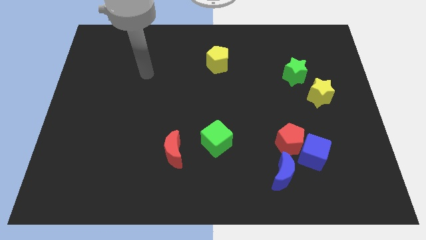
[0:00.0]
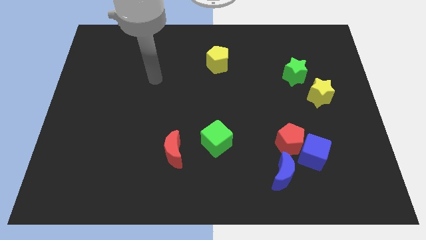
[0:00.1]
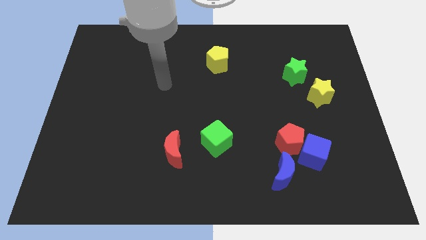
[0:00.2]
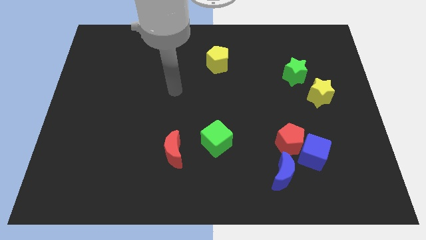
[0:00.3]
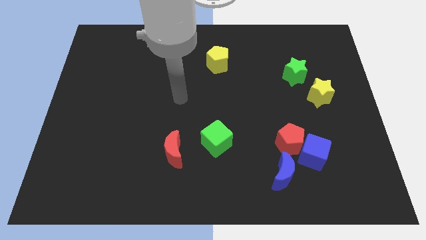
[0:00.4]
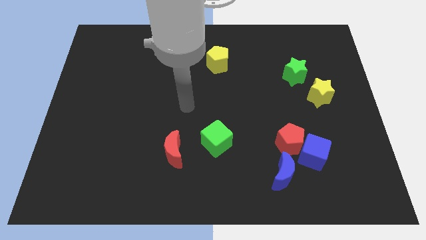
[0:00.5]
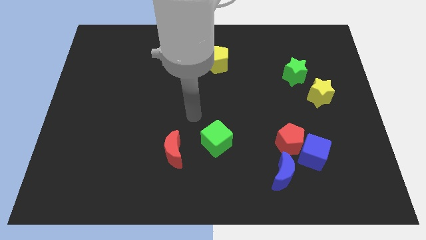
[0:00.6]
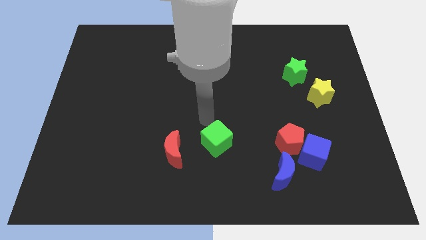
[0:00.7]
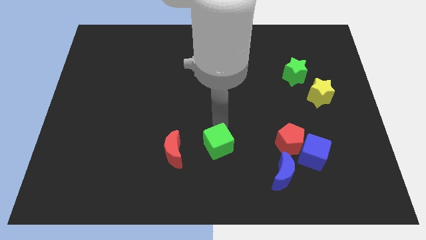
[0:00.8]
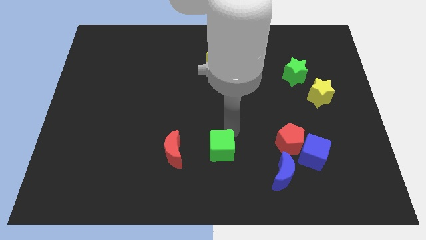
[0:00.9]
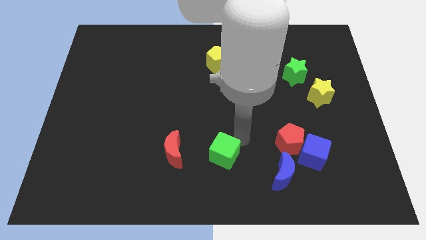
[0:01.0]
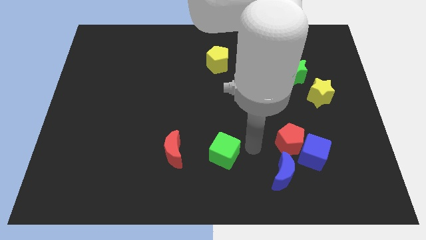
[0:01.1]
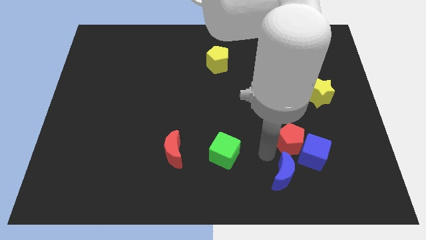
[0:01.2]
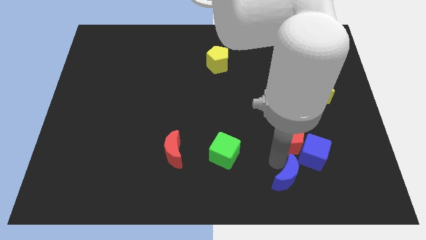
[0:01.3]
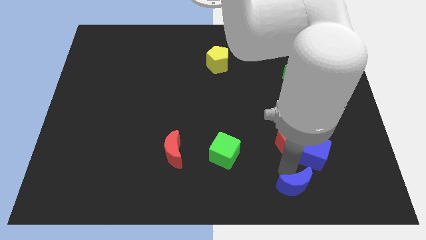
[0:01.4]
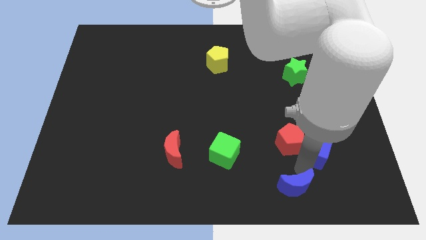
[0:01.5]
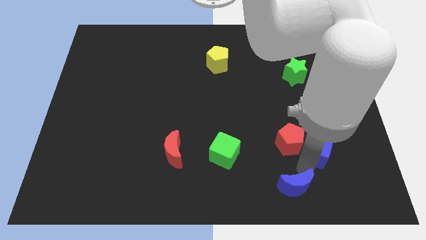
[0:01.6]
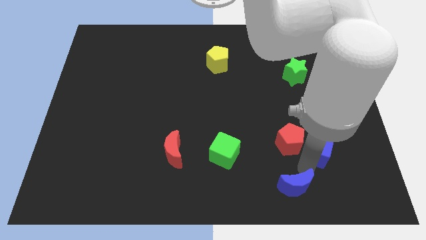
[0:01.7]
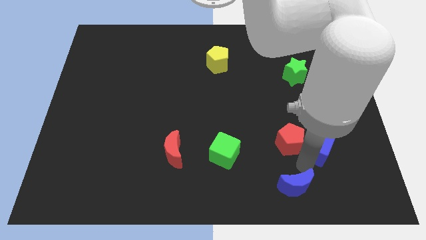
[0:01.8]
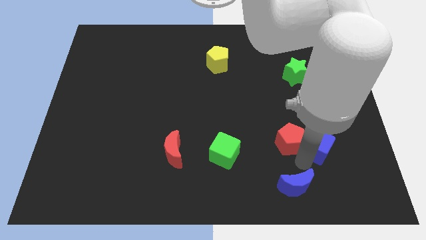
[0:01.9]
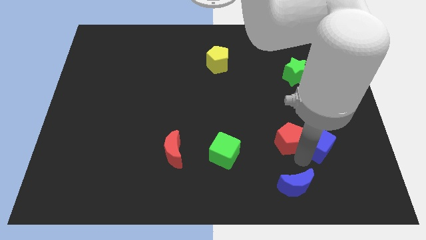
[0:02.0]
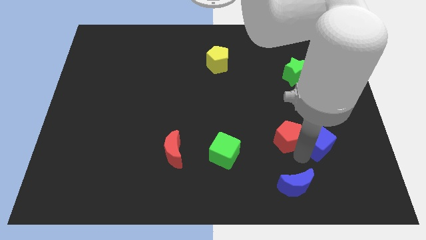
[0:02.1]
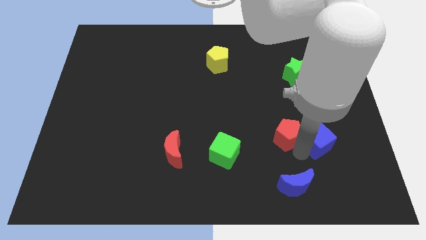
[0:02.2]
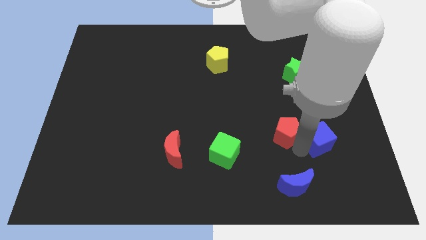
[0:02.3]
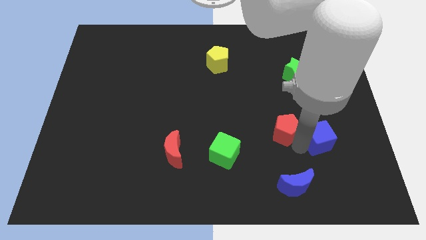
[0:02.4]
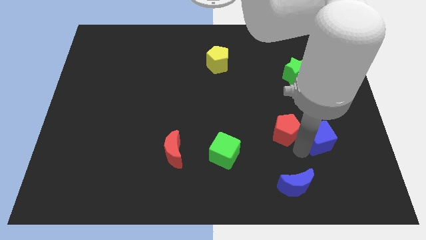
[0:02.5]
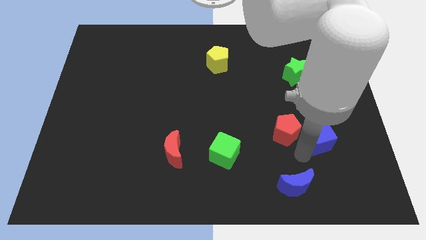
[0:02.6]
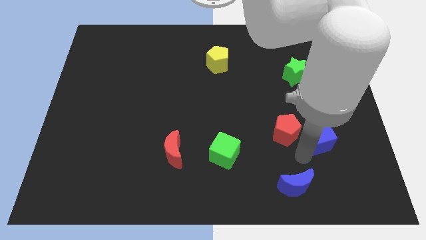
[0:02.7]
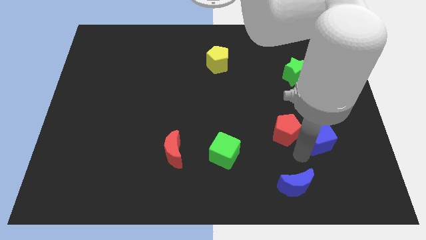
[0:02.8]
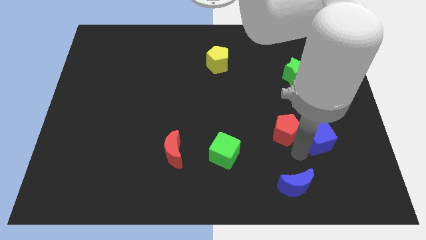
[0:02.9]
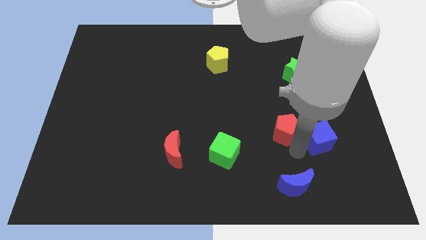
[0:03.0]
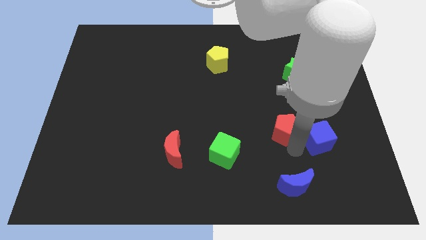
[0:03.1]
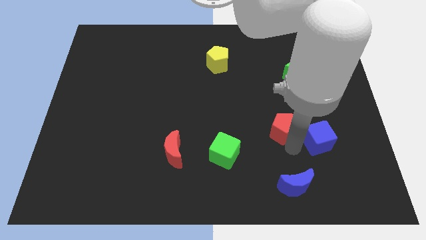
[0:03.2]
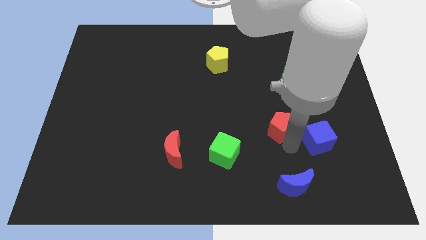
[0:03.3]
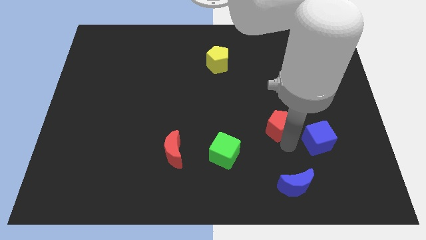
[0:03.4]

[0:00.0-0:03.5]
pull the red pentagon apart from the blue cube and blue moon

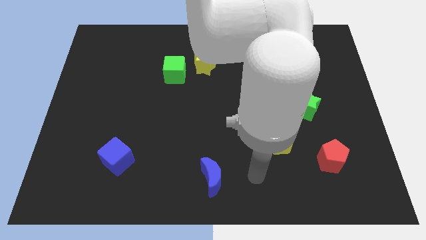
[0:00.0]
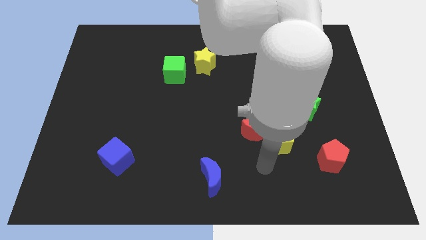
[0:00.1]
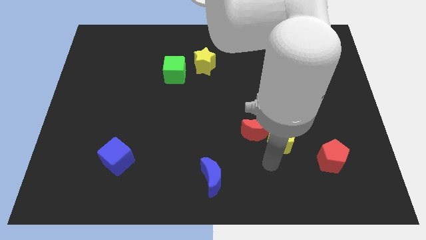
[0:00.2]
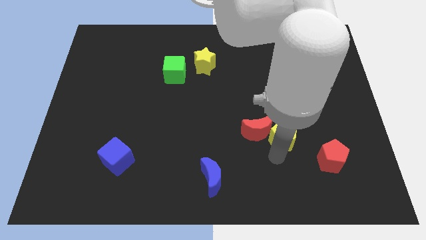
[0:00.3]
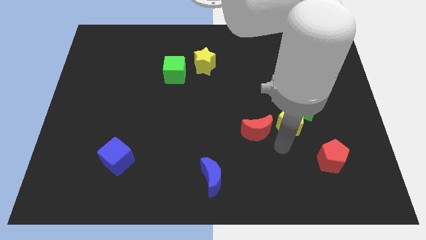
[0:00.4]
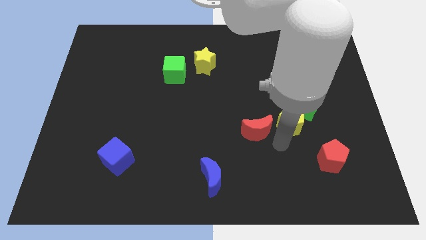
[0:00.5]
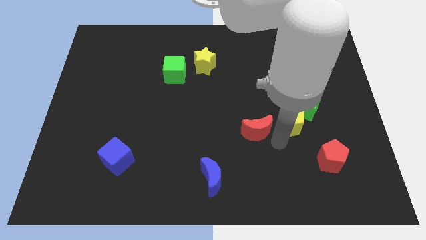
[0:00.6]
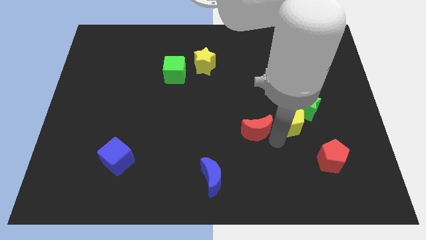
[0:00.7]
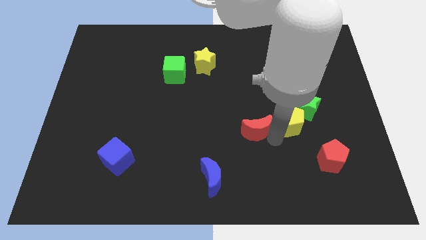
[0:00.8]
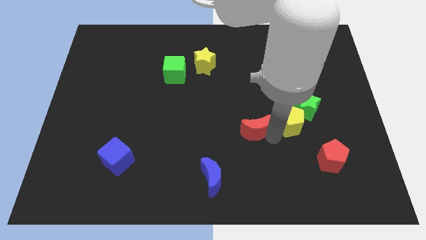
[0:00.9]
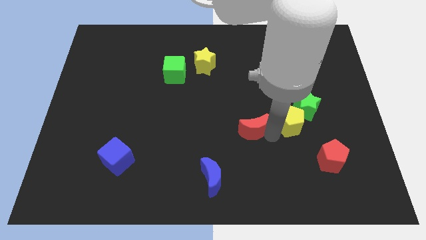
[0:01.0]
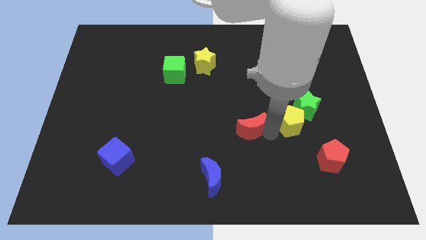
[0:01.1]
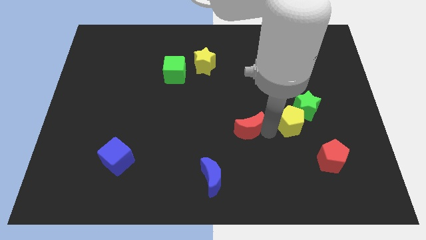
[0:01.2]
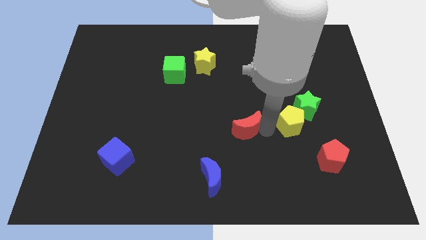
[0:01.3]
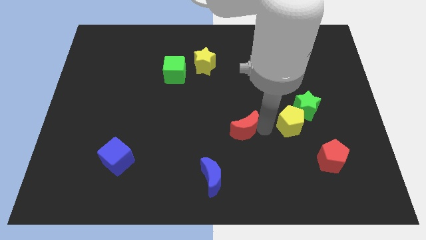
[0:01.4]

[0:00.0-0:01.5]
pull the red moon apart from the yellow pentagon

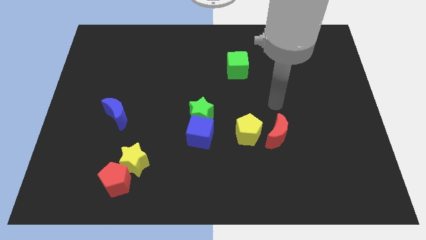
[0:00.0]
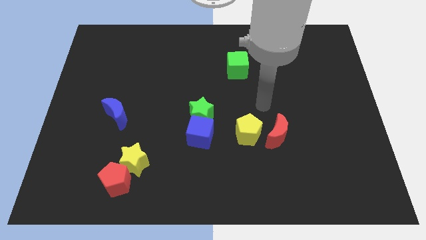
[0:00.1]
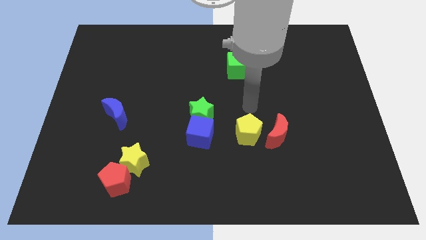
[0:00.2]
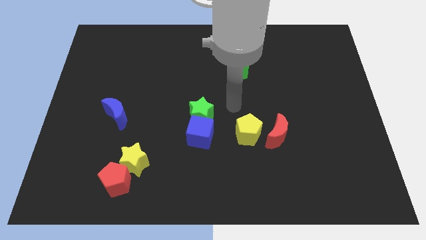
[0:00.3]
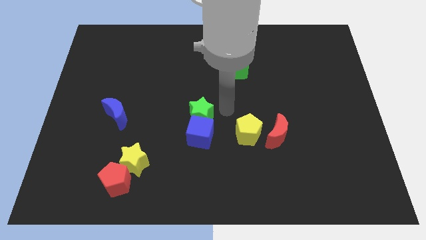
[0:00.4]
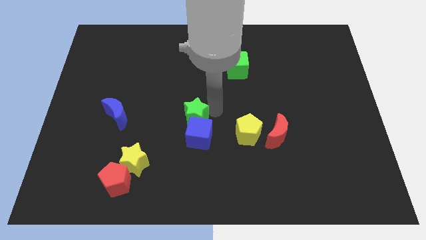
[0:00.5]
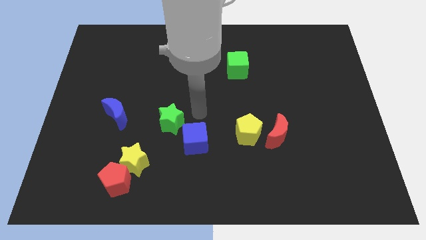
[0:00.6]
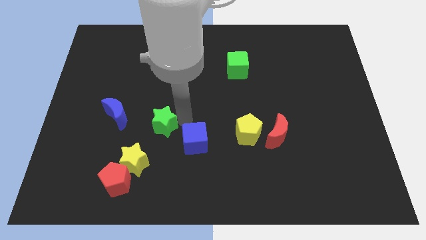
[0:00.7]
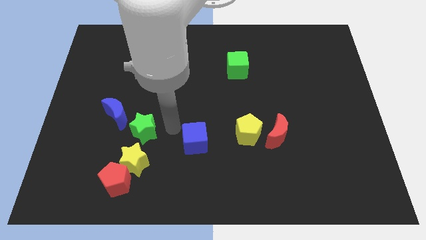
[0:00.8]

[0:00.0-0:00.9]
separate the blue cube from the green star

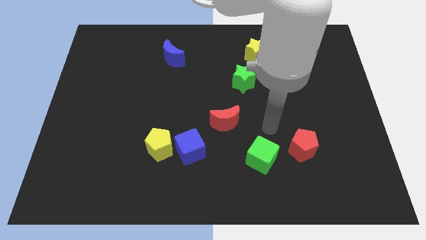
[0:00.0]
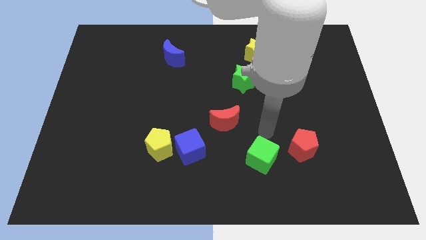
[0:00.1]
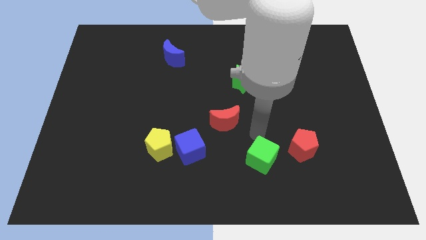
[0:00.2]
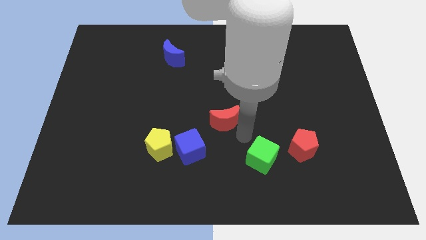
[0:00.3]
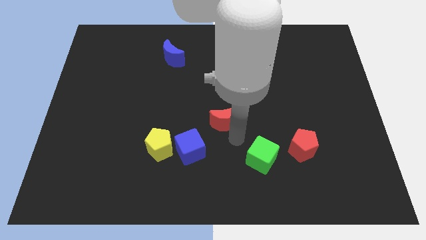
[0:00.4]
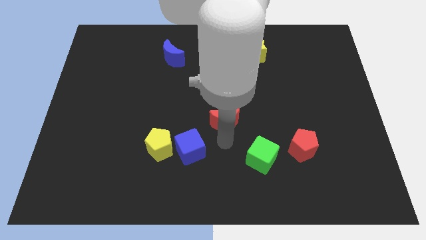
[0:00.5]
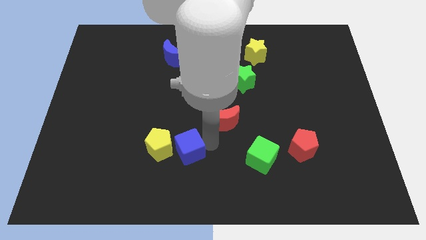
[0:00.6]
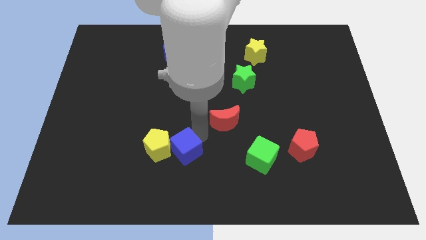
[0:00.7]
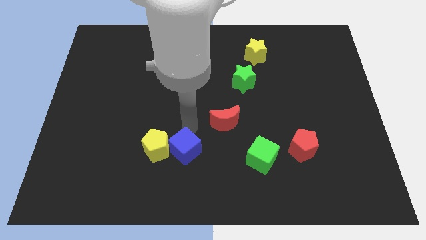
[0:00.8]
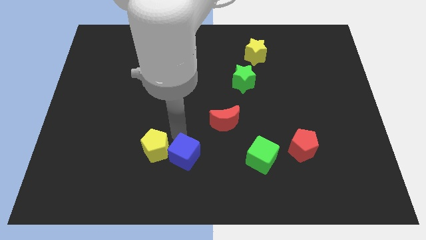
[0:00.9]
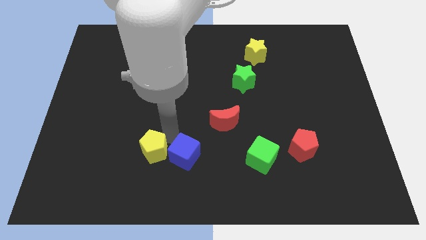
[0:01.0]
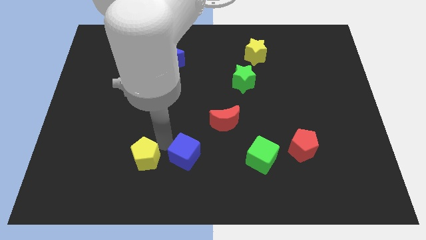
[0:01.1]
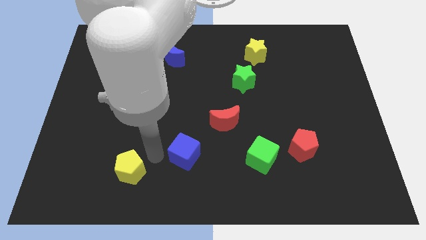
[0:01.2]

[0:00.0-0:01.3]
move the blue cube away from the yellow pentagon

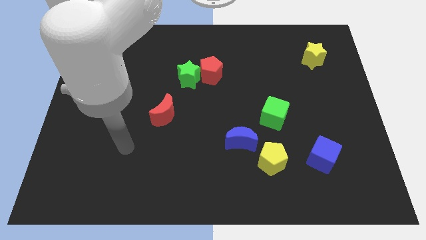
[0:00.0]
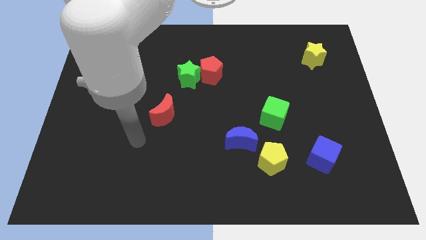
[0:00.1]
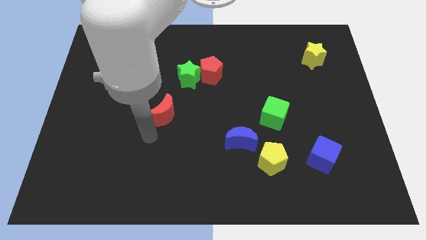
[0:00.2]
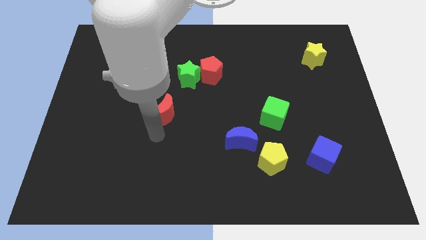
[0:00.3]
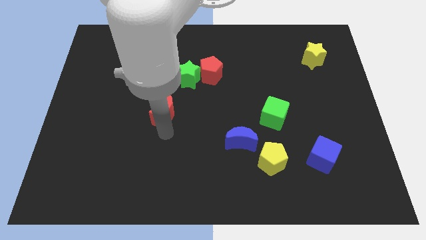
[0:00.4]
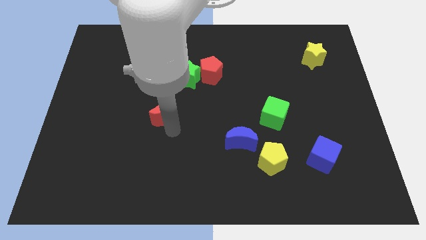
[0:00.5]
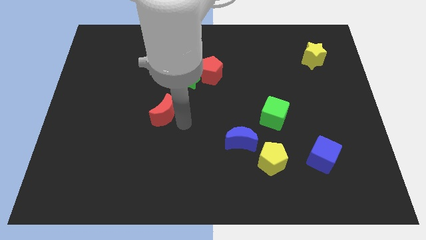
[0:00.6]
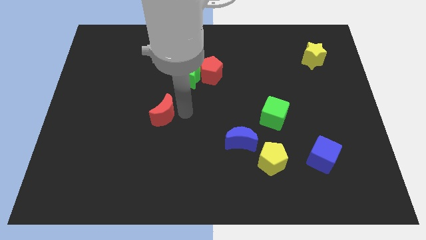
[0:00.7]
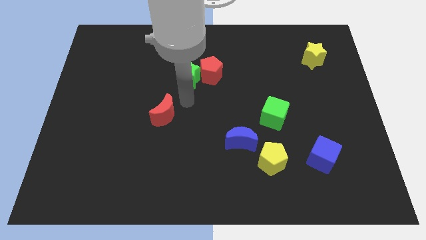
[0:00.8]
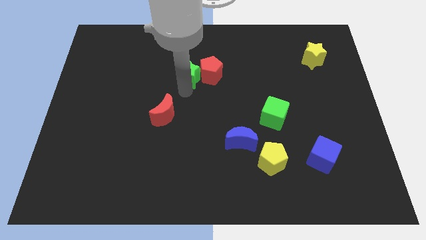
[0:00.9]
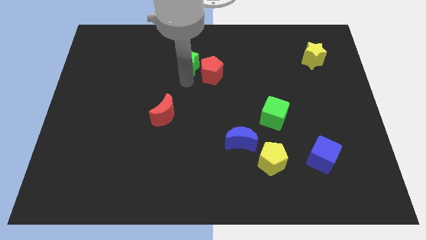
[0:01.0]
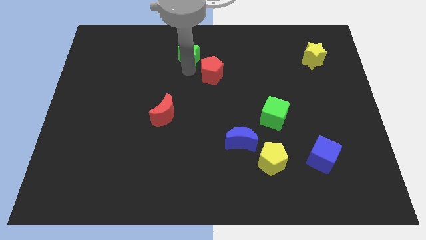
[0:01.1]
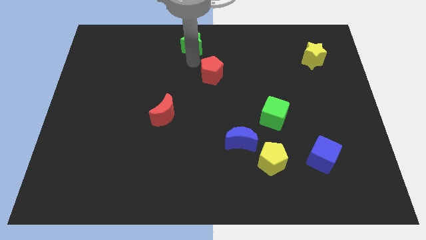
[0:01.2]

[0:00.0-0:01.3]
separate the red pentagon from the green star

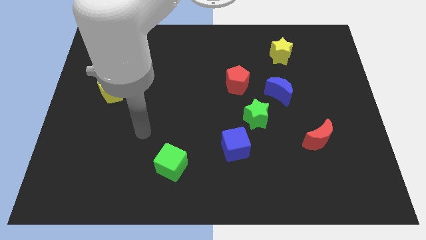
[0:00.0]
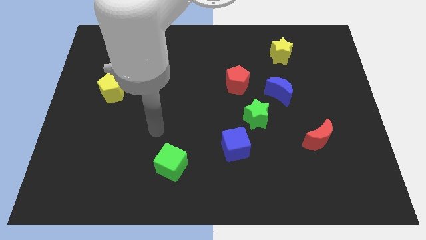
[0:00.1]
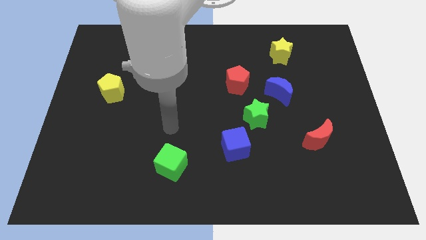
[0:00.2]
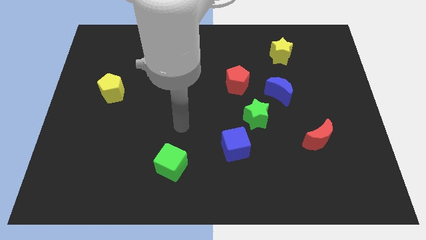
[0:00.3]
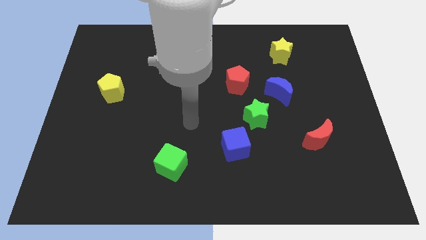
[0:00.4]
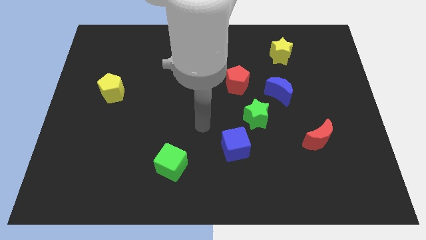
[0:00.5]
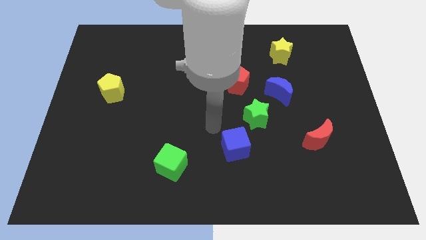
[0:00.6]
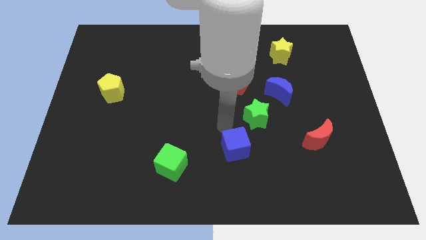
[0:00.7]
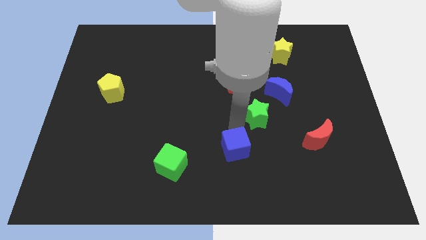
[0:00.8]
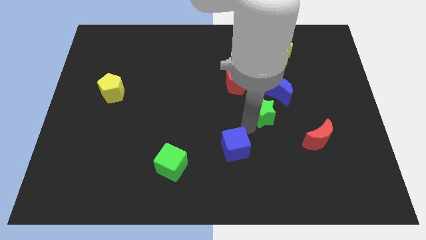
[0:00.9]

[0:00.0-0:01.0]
pull the blue cube apart from the green star
